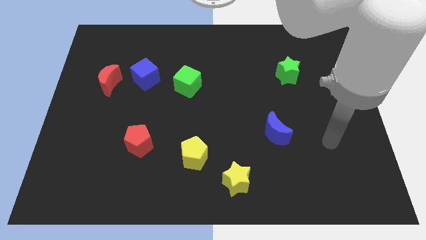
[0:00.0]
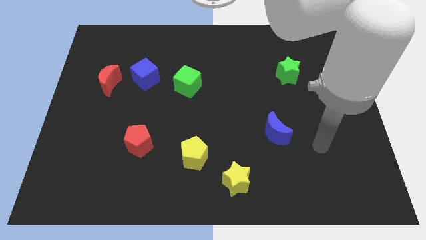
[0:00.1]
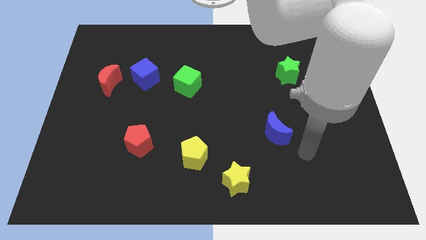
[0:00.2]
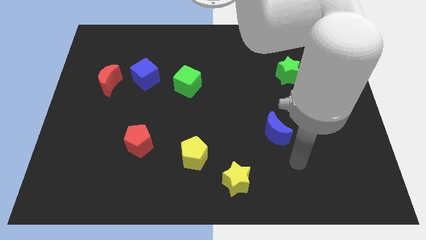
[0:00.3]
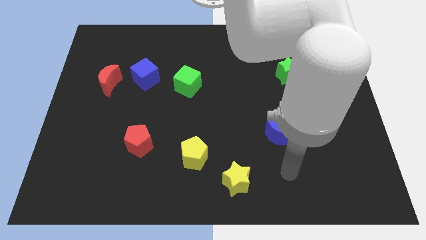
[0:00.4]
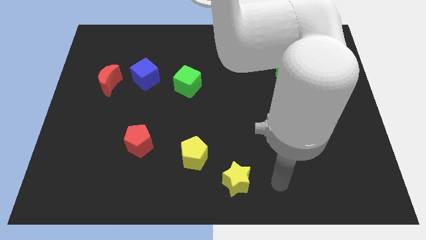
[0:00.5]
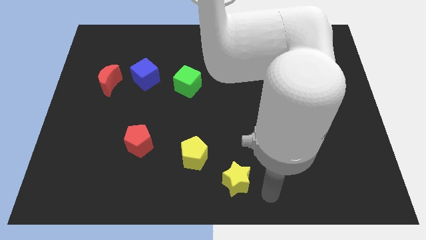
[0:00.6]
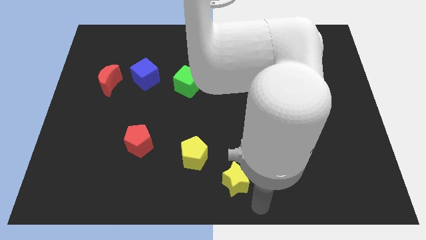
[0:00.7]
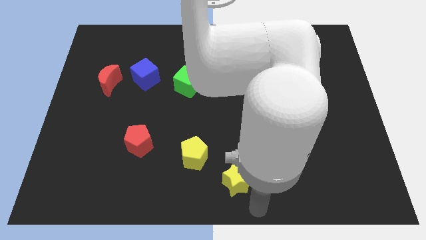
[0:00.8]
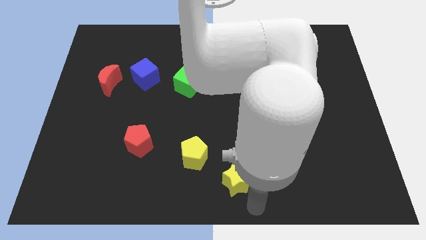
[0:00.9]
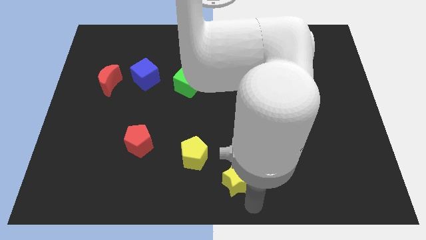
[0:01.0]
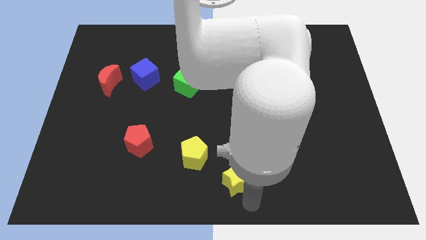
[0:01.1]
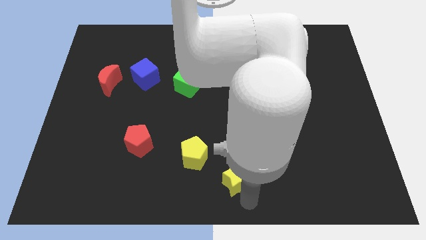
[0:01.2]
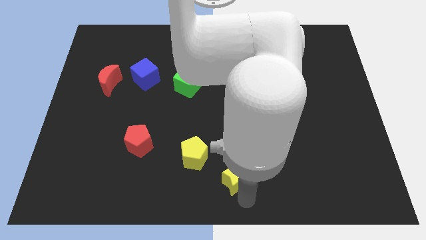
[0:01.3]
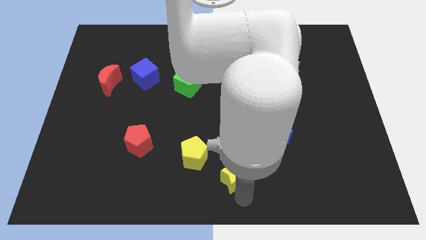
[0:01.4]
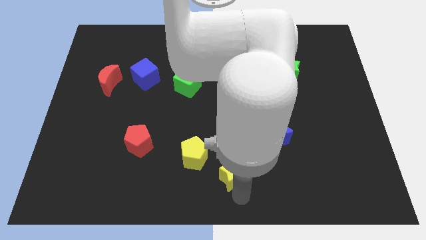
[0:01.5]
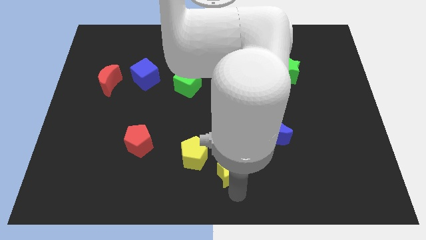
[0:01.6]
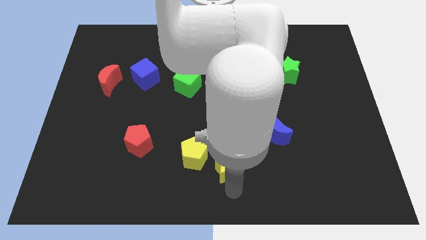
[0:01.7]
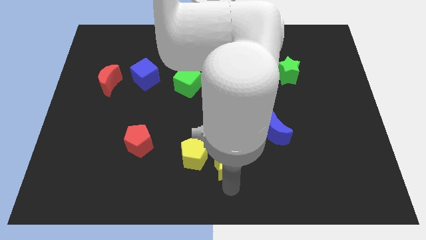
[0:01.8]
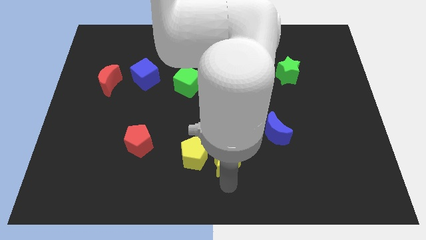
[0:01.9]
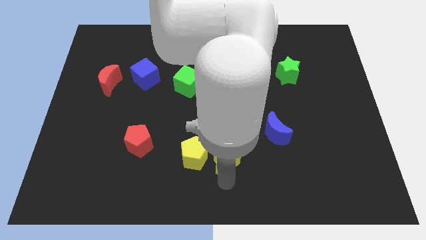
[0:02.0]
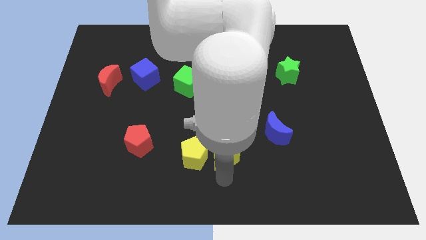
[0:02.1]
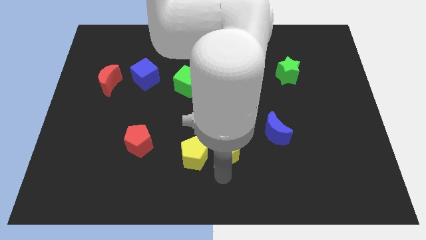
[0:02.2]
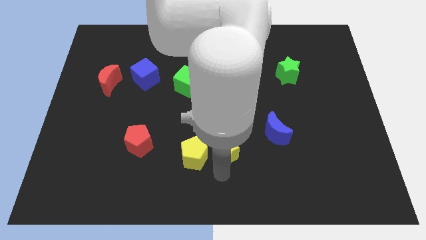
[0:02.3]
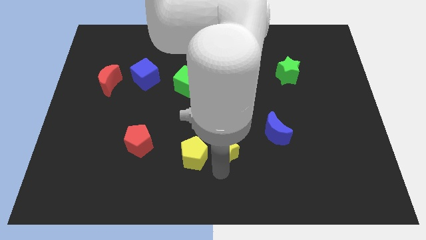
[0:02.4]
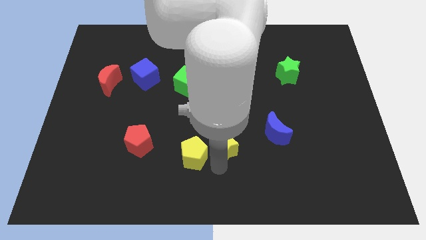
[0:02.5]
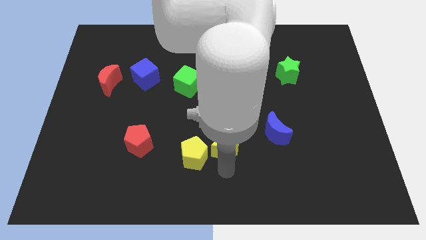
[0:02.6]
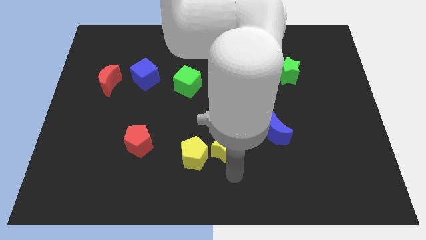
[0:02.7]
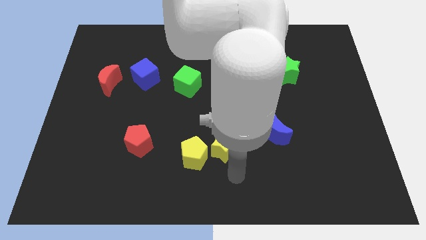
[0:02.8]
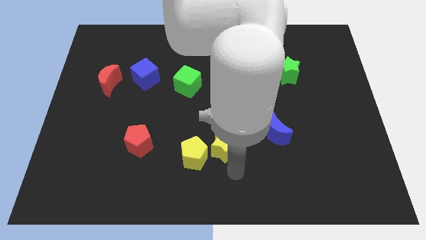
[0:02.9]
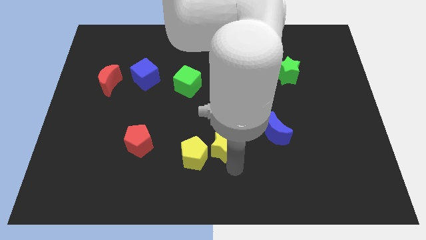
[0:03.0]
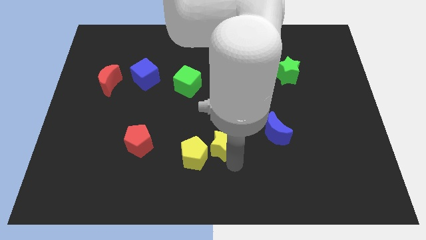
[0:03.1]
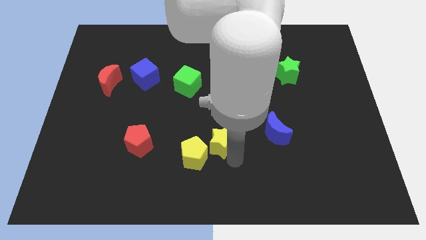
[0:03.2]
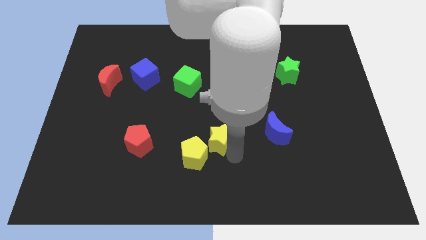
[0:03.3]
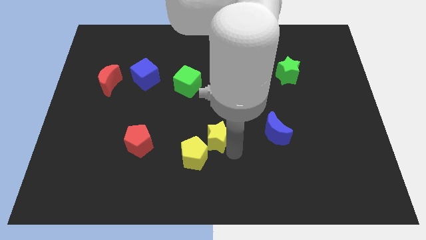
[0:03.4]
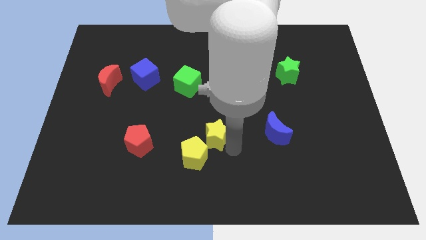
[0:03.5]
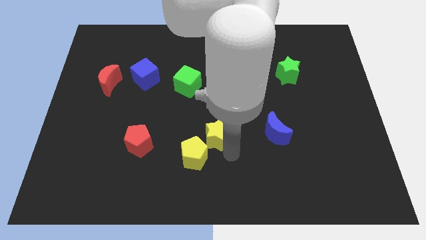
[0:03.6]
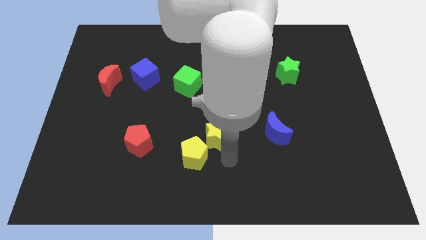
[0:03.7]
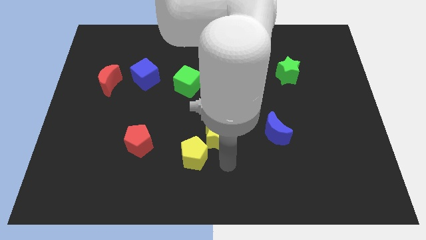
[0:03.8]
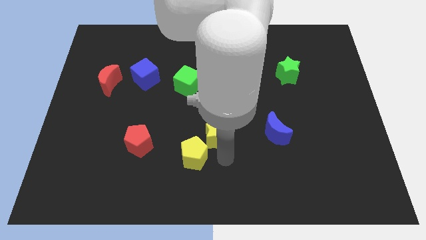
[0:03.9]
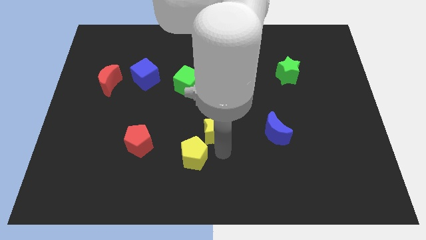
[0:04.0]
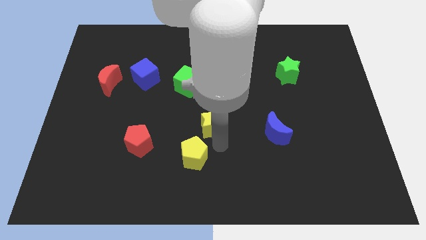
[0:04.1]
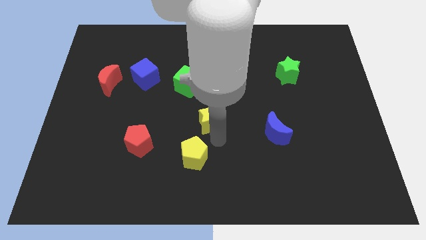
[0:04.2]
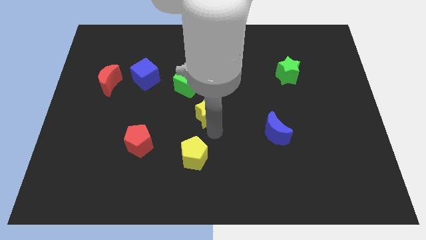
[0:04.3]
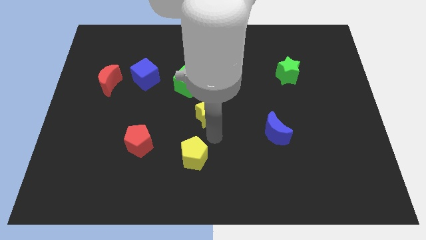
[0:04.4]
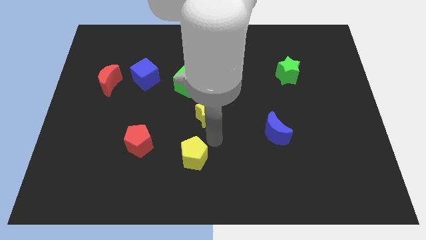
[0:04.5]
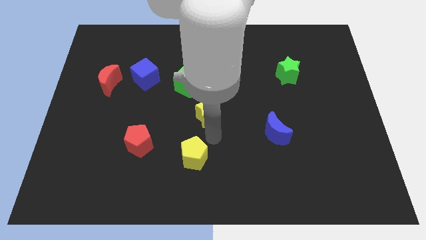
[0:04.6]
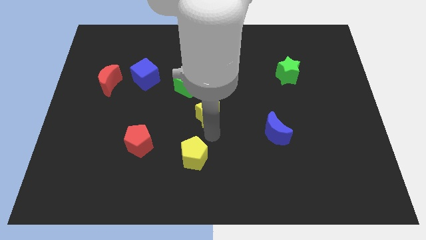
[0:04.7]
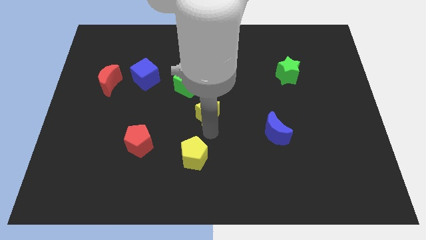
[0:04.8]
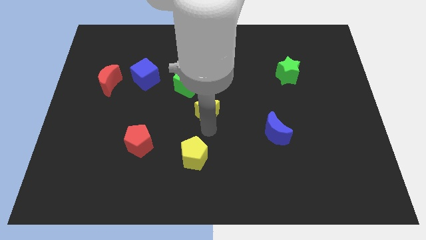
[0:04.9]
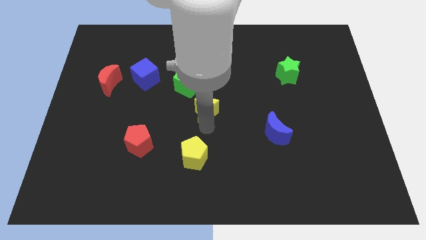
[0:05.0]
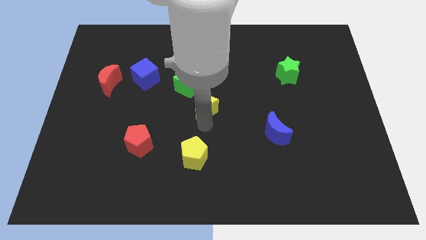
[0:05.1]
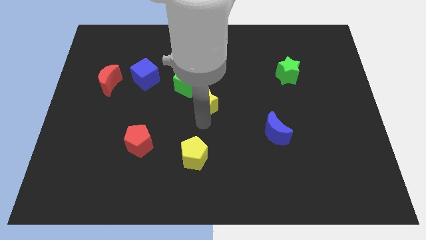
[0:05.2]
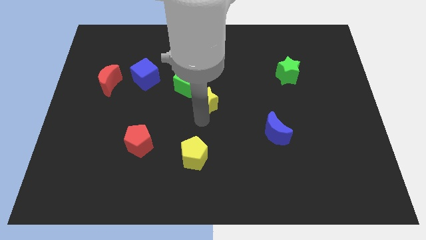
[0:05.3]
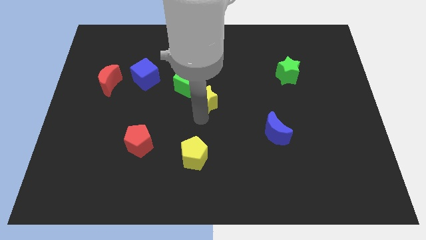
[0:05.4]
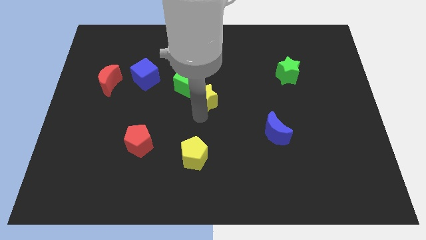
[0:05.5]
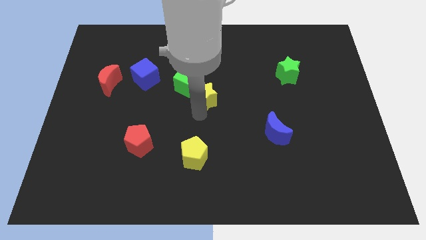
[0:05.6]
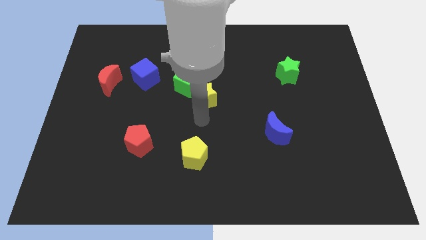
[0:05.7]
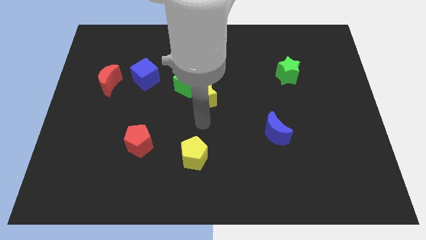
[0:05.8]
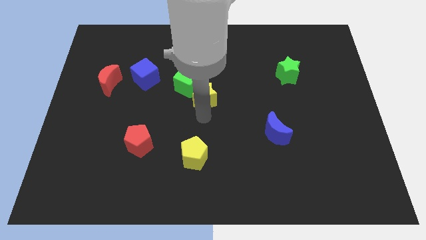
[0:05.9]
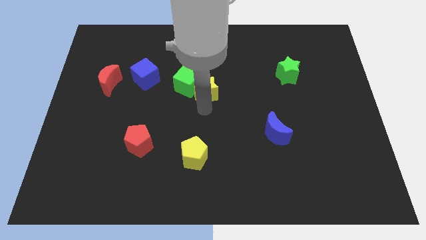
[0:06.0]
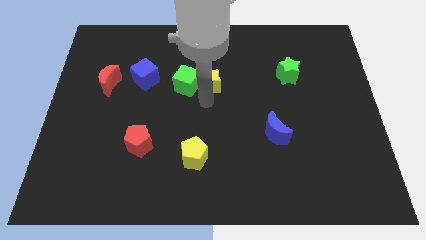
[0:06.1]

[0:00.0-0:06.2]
move the yellow star to the top right side of the green cube

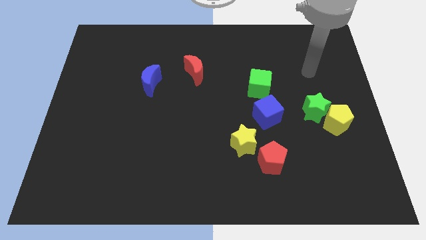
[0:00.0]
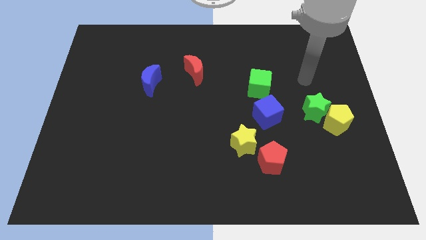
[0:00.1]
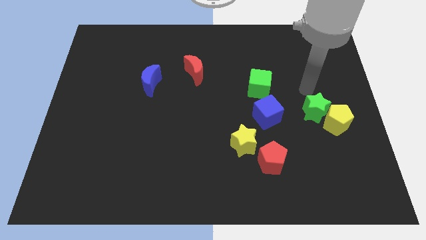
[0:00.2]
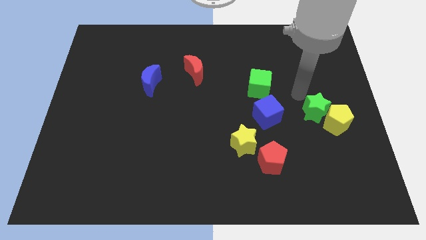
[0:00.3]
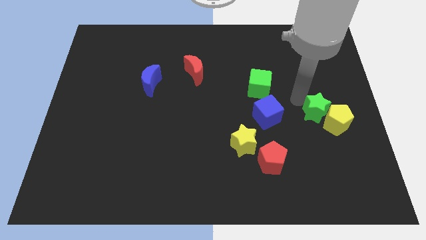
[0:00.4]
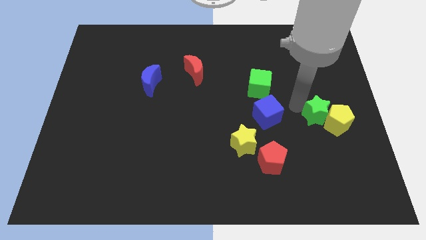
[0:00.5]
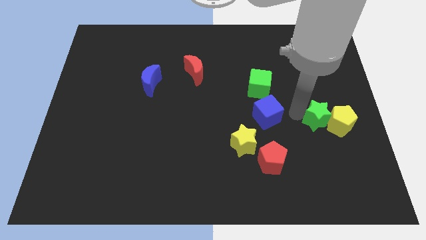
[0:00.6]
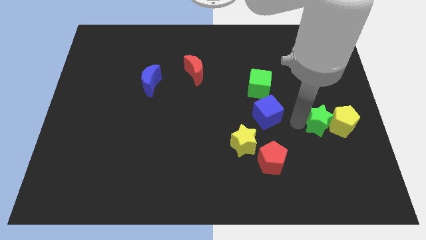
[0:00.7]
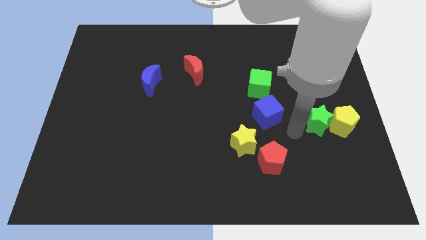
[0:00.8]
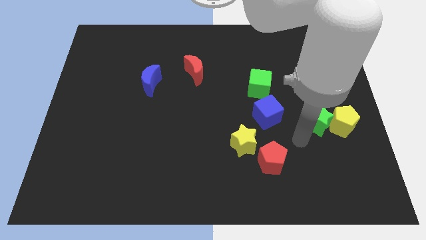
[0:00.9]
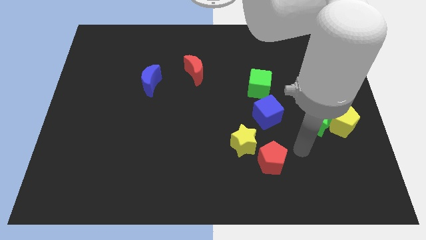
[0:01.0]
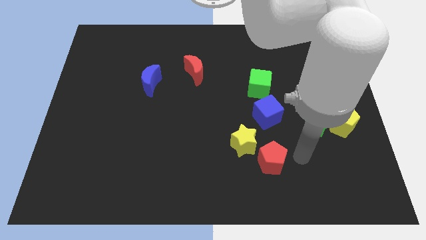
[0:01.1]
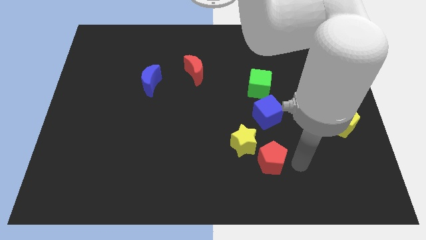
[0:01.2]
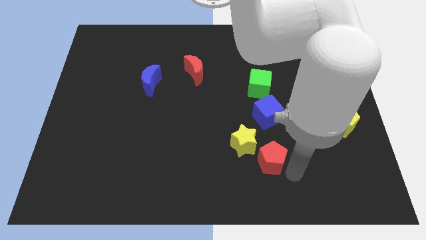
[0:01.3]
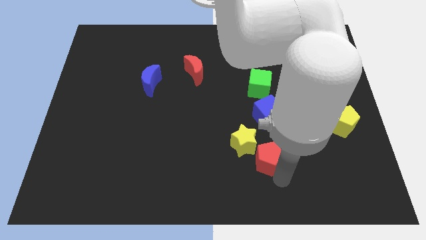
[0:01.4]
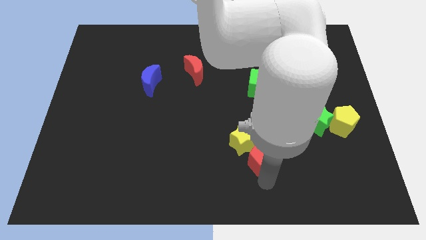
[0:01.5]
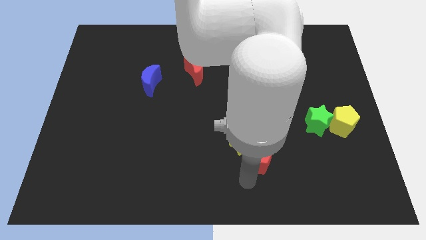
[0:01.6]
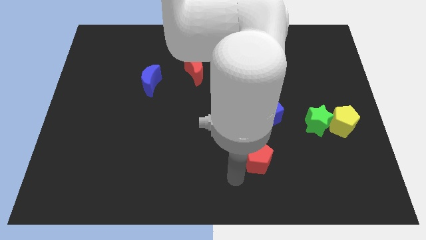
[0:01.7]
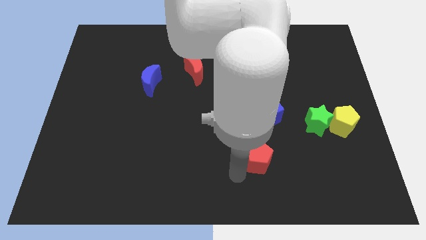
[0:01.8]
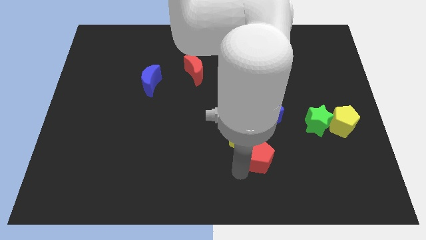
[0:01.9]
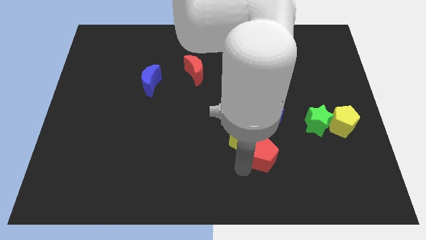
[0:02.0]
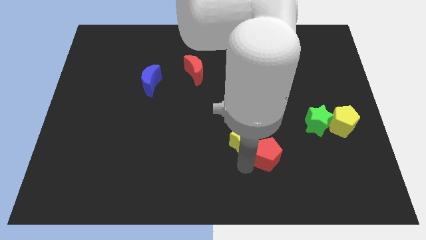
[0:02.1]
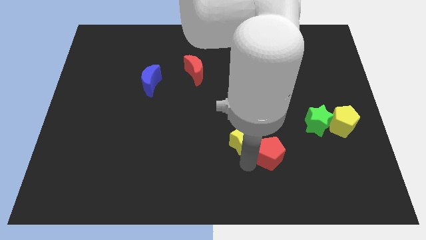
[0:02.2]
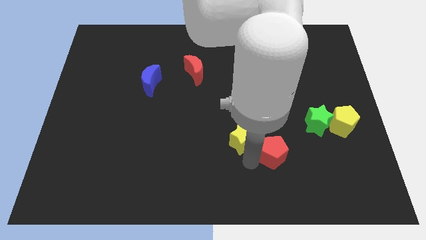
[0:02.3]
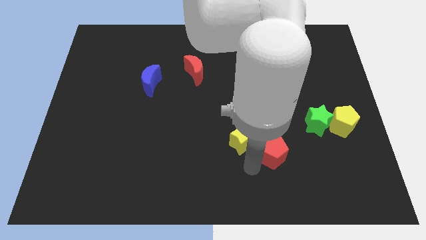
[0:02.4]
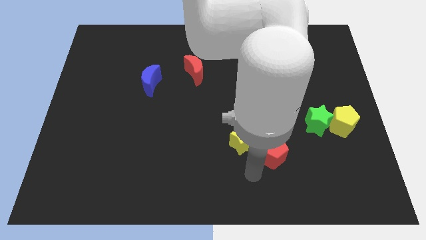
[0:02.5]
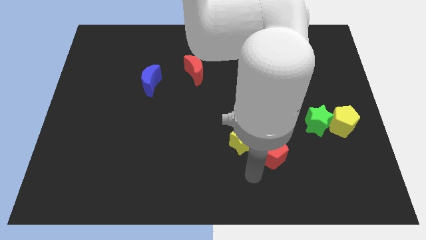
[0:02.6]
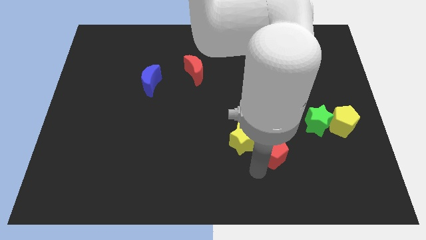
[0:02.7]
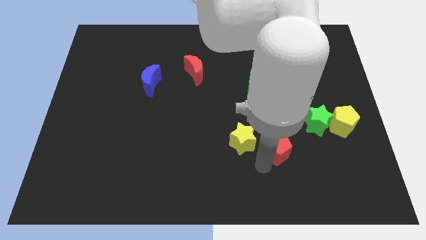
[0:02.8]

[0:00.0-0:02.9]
move the red pentagon to the bottom left side of the green star
